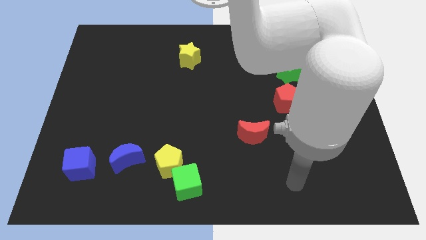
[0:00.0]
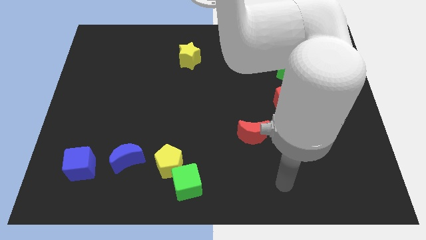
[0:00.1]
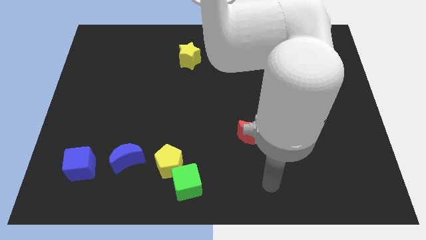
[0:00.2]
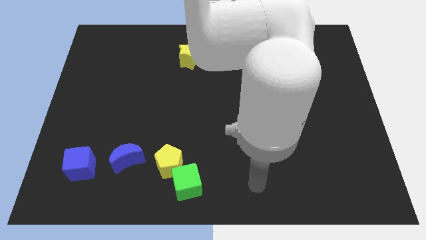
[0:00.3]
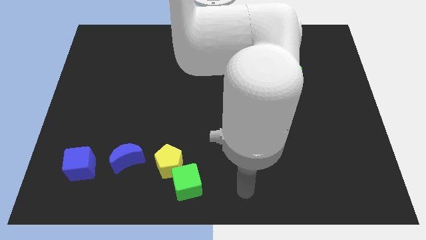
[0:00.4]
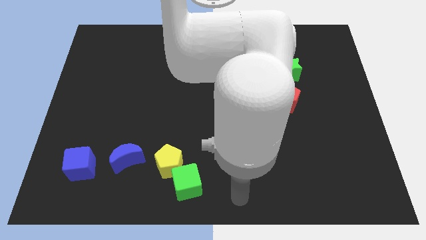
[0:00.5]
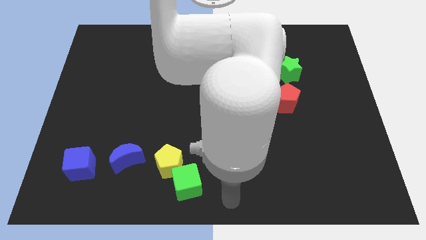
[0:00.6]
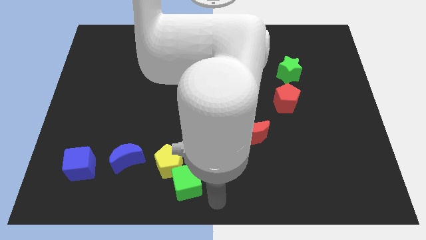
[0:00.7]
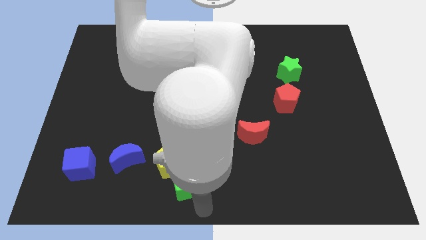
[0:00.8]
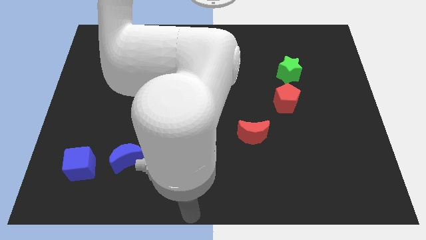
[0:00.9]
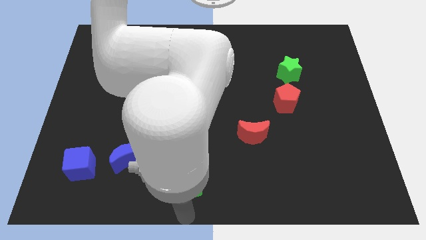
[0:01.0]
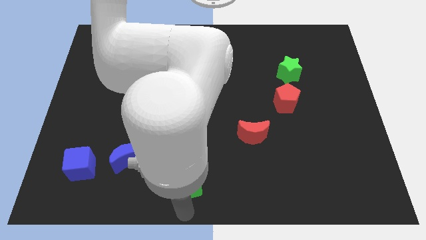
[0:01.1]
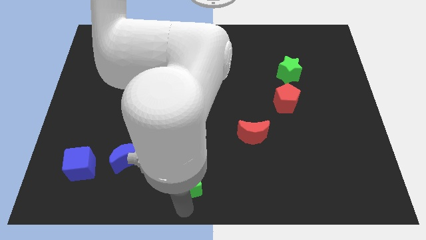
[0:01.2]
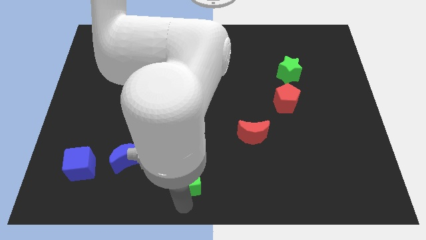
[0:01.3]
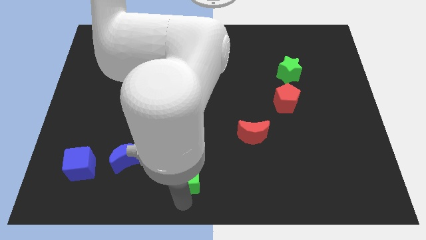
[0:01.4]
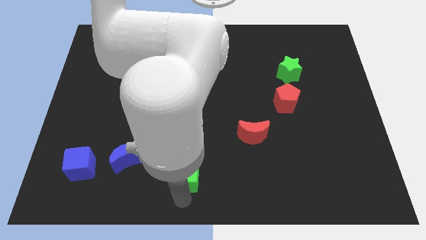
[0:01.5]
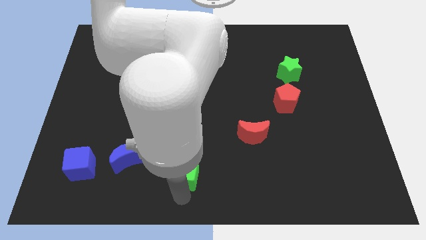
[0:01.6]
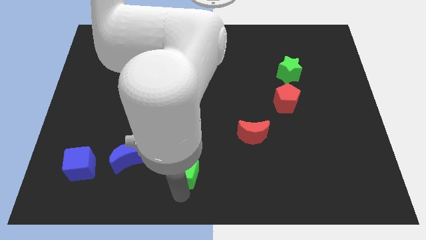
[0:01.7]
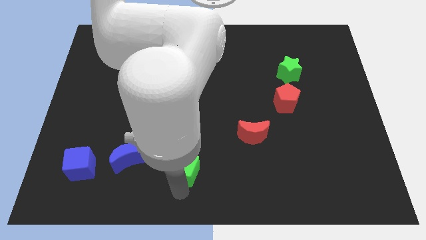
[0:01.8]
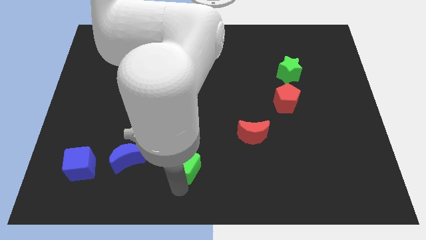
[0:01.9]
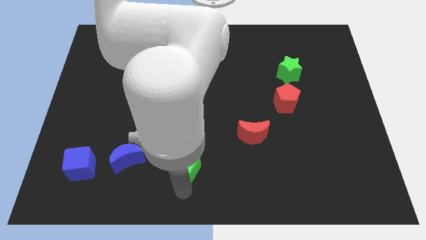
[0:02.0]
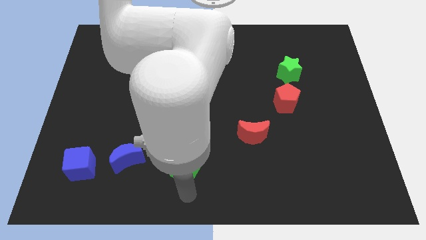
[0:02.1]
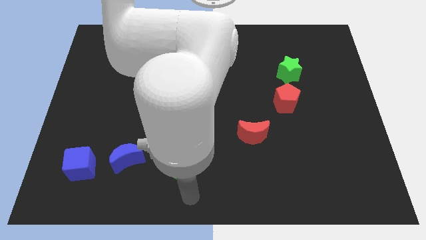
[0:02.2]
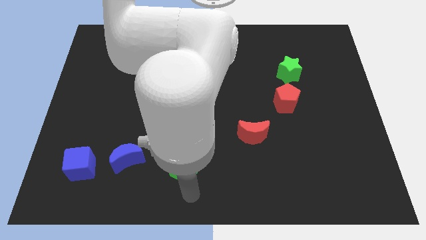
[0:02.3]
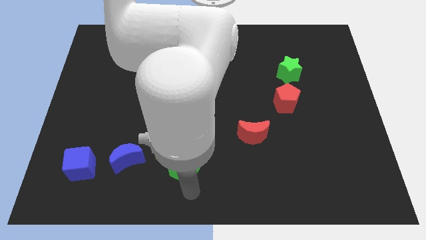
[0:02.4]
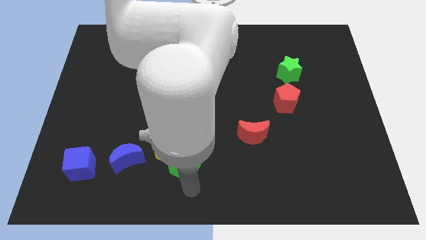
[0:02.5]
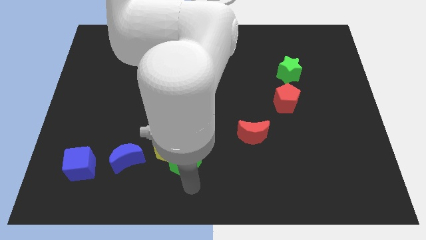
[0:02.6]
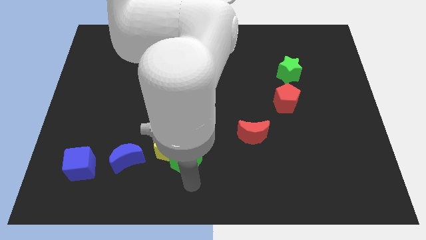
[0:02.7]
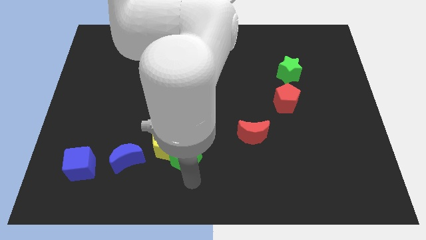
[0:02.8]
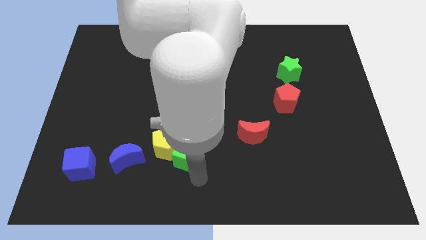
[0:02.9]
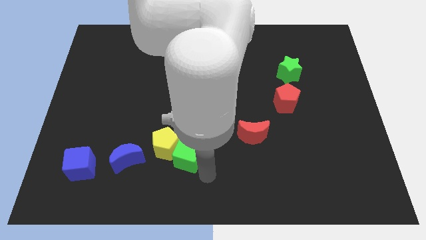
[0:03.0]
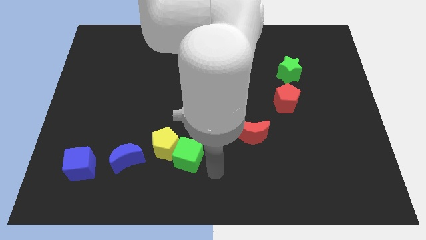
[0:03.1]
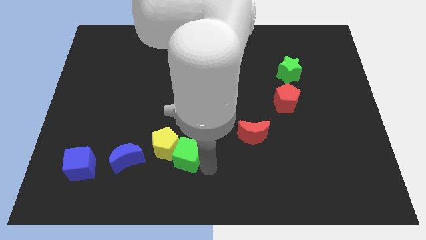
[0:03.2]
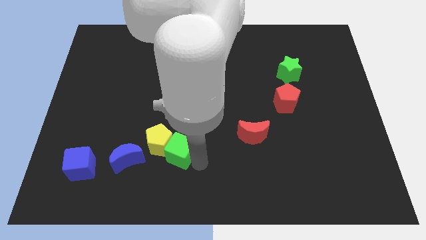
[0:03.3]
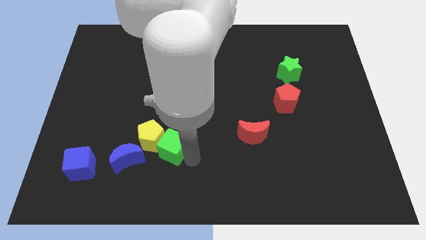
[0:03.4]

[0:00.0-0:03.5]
push the green cube up and to the left a little

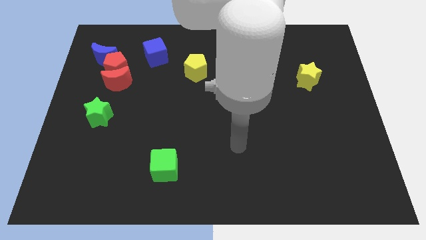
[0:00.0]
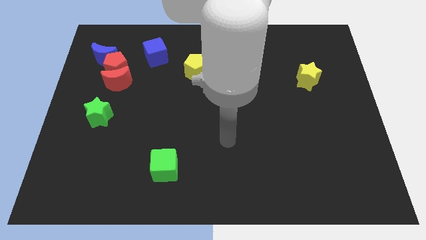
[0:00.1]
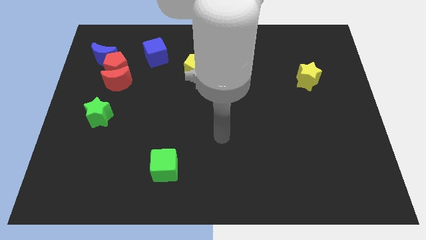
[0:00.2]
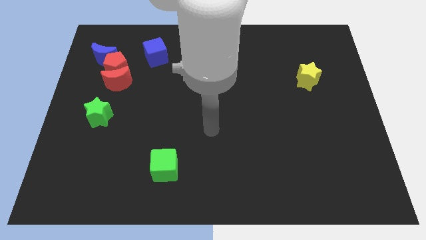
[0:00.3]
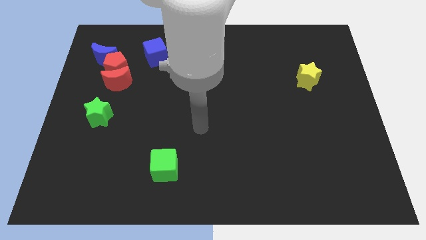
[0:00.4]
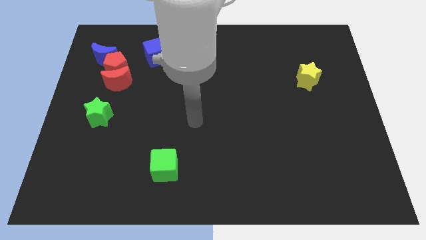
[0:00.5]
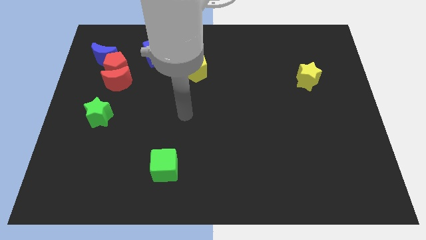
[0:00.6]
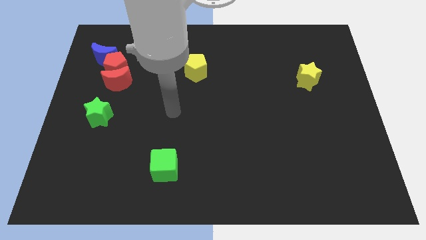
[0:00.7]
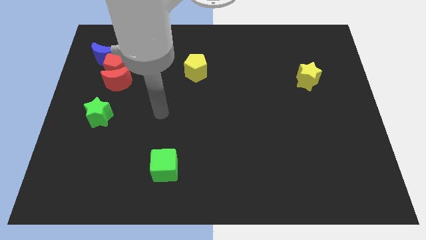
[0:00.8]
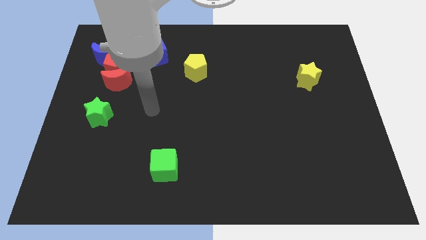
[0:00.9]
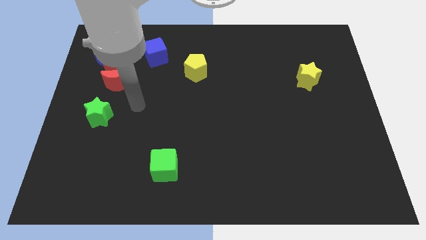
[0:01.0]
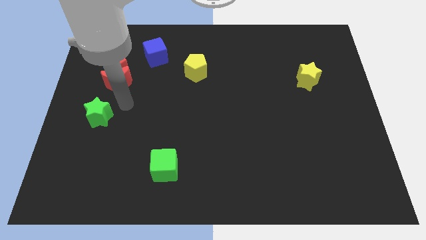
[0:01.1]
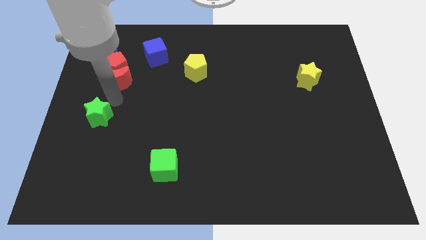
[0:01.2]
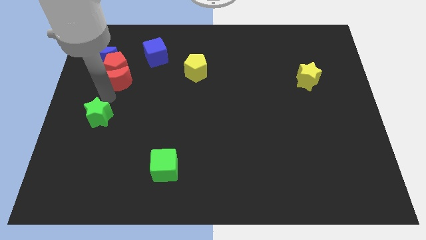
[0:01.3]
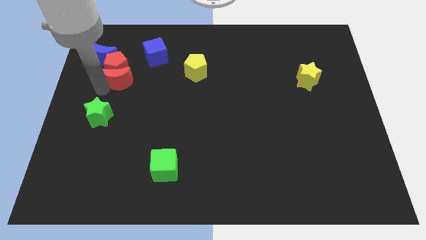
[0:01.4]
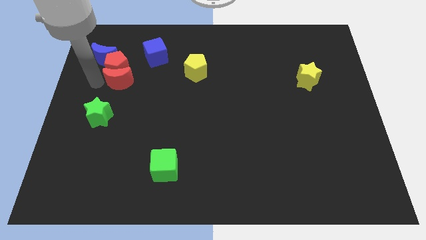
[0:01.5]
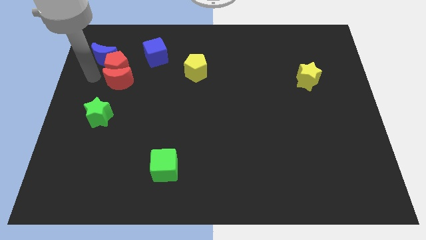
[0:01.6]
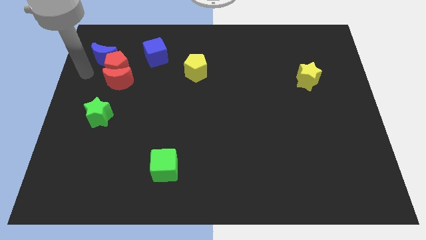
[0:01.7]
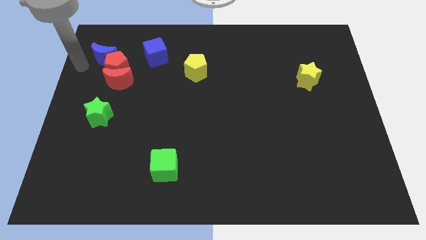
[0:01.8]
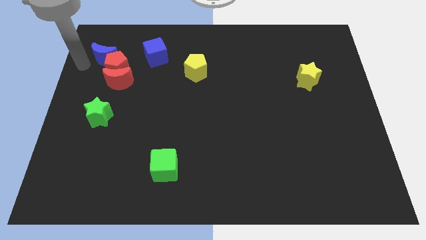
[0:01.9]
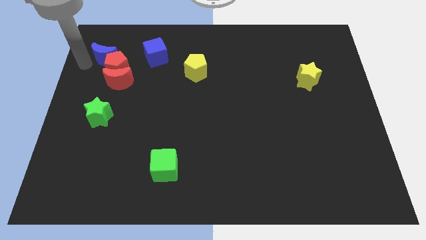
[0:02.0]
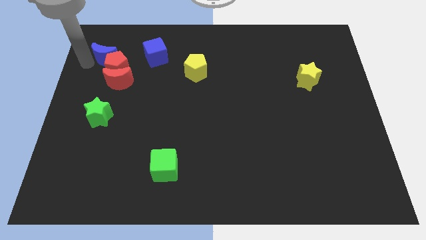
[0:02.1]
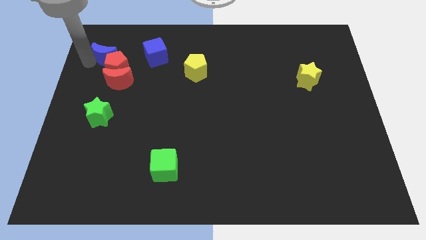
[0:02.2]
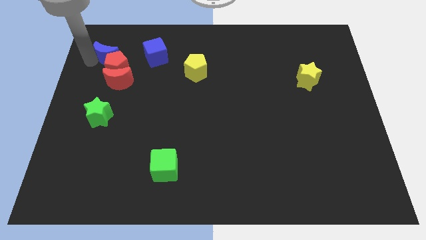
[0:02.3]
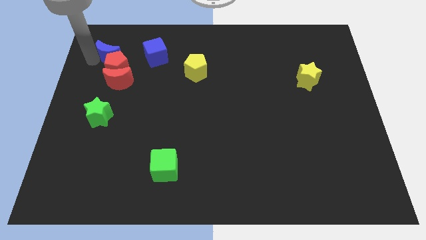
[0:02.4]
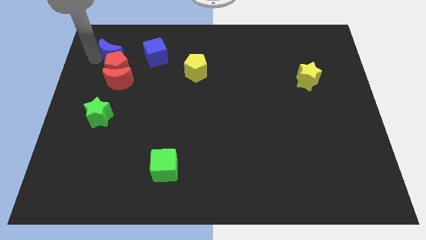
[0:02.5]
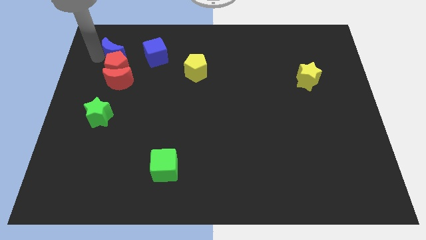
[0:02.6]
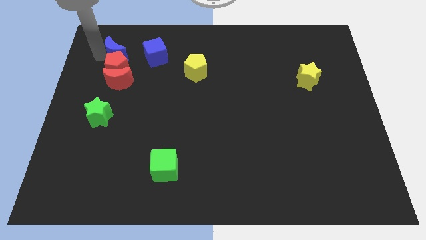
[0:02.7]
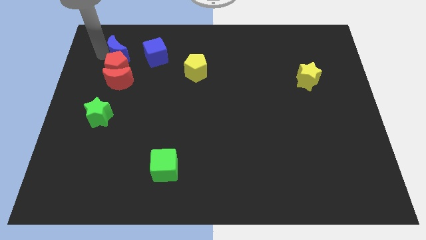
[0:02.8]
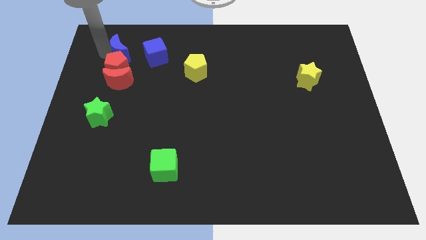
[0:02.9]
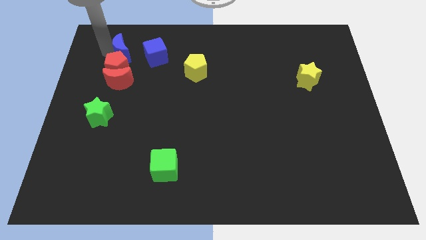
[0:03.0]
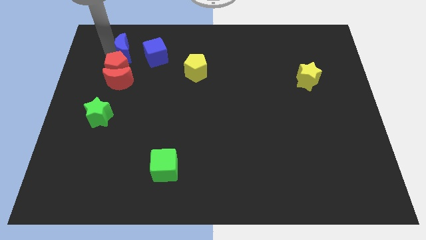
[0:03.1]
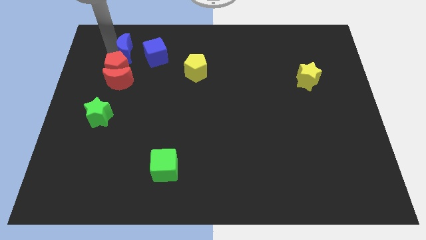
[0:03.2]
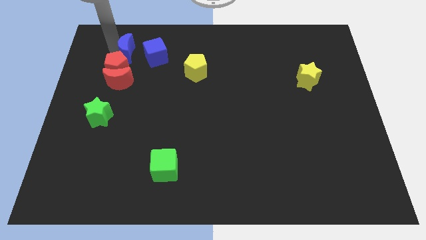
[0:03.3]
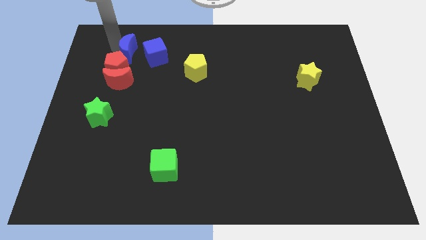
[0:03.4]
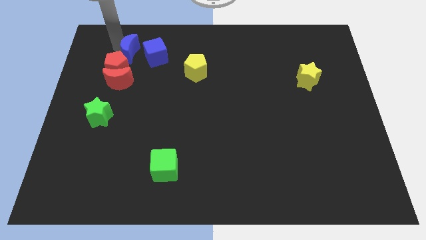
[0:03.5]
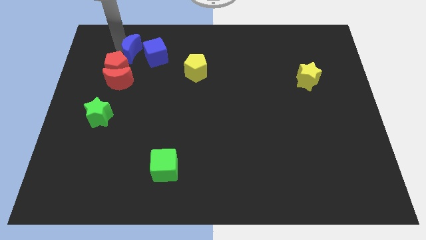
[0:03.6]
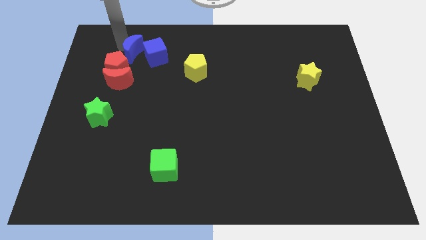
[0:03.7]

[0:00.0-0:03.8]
push the blue moon somewhat right

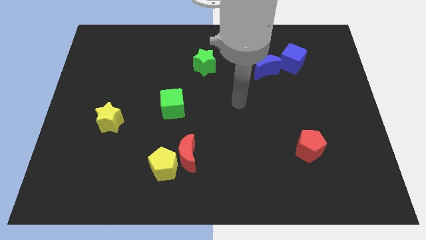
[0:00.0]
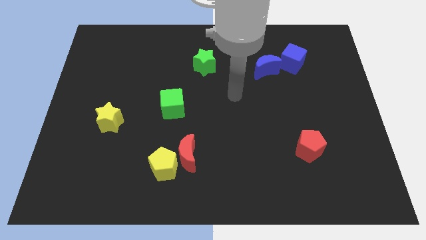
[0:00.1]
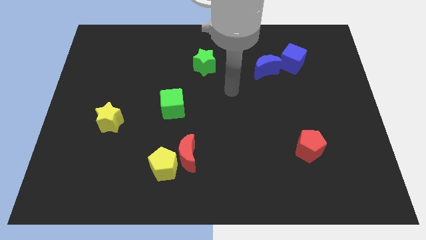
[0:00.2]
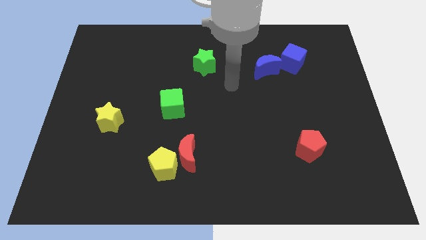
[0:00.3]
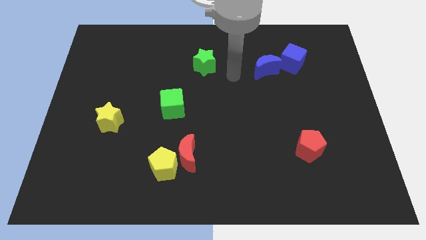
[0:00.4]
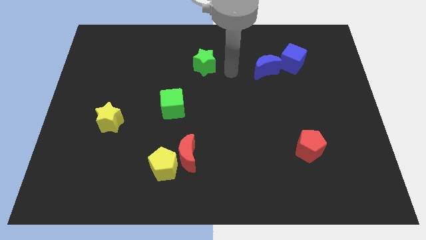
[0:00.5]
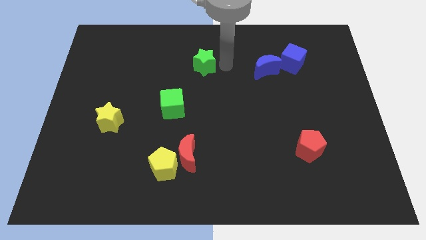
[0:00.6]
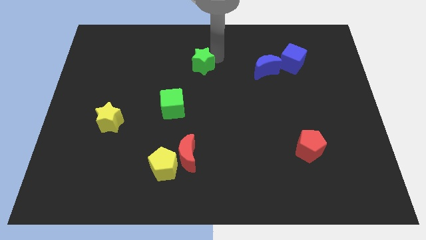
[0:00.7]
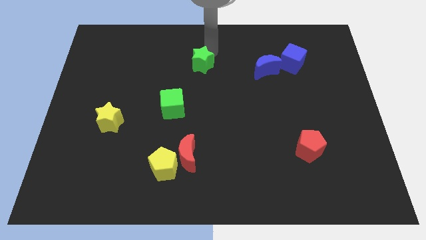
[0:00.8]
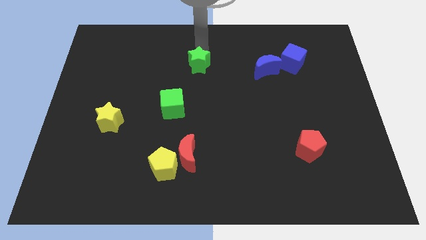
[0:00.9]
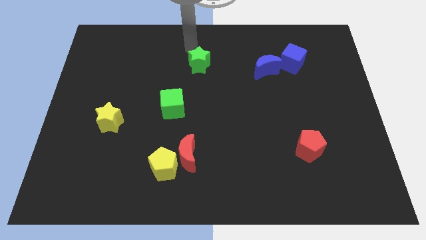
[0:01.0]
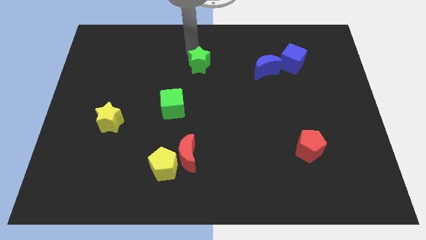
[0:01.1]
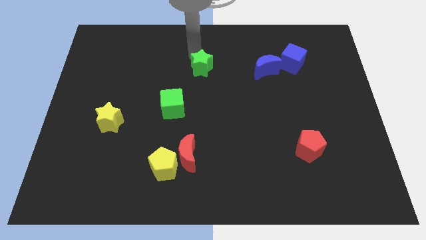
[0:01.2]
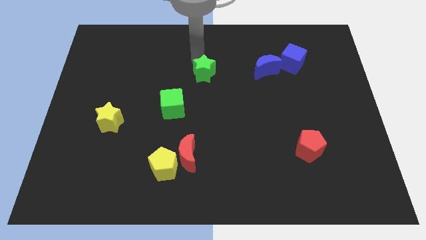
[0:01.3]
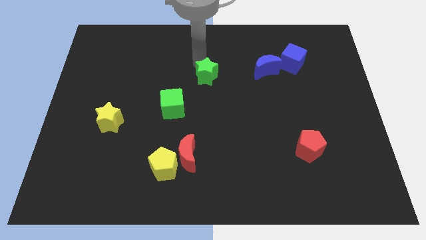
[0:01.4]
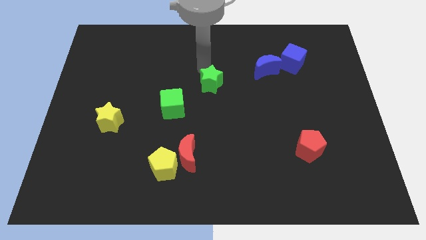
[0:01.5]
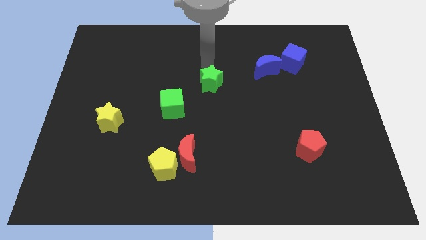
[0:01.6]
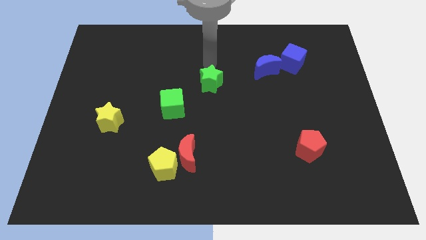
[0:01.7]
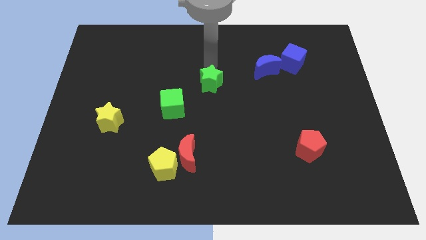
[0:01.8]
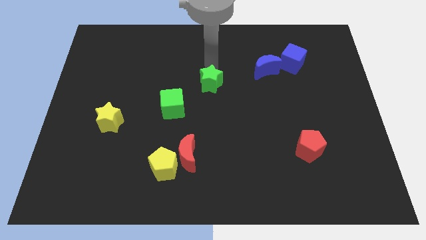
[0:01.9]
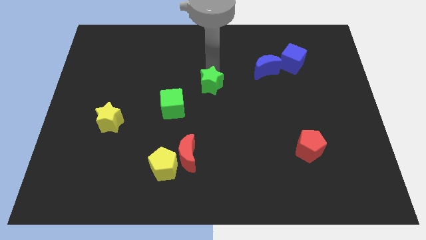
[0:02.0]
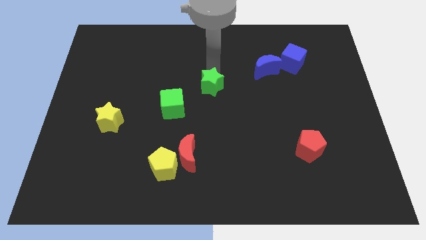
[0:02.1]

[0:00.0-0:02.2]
slightly push the green star downwards
